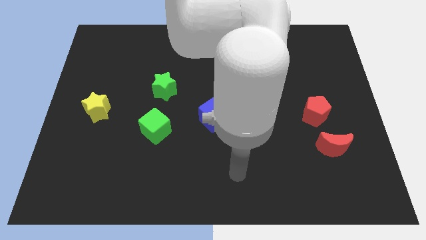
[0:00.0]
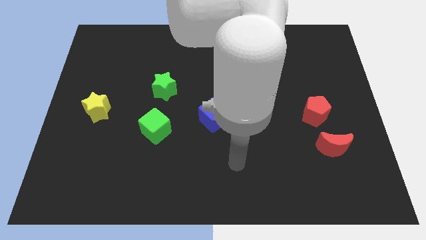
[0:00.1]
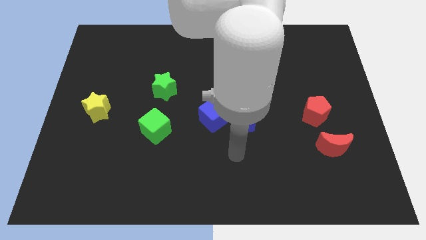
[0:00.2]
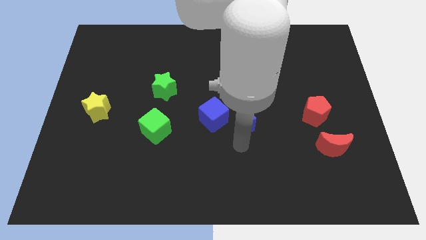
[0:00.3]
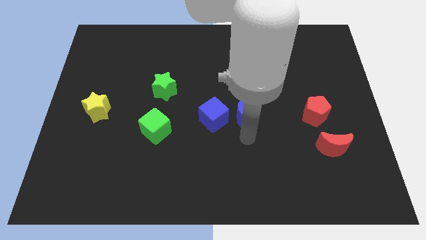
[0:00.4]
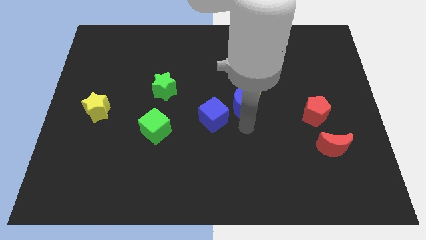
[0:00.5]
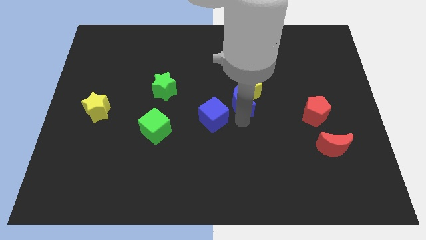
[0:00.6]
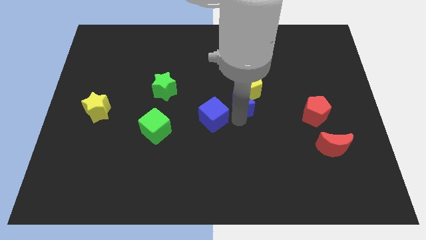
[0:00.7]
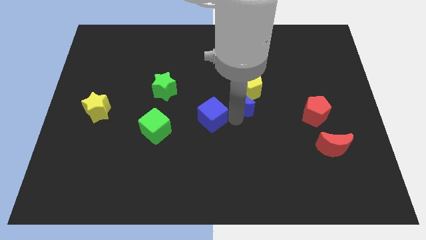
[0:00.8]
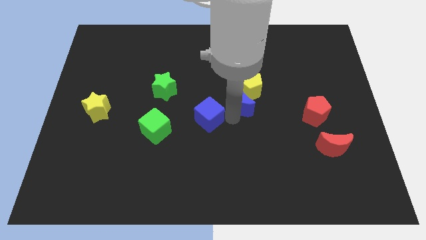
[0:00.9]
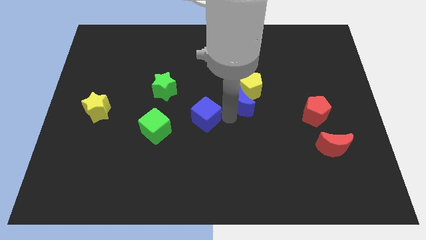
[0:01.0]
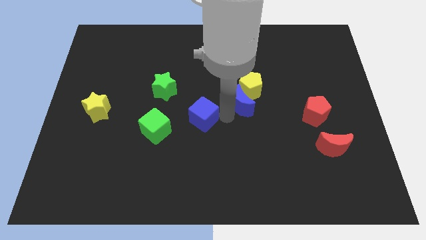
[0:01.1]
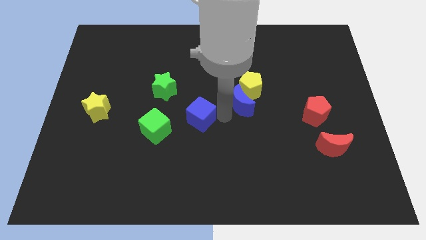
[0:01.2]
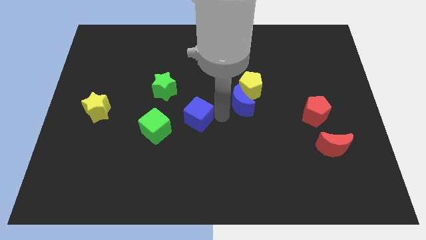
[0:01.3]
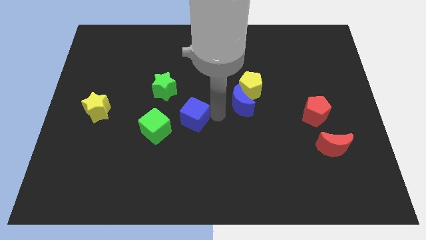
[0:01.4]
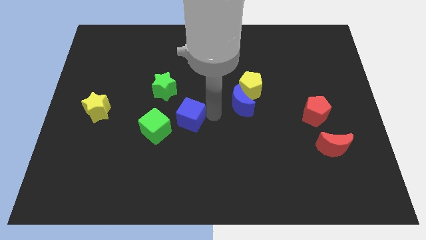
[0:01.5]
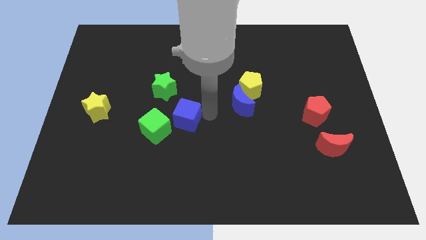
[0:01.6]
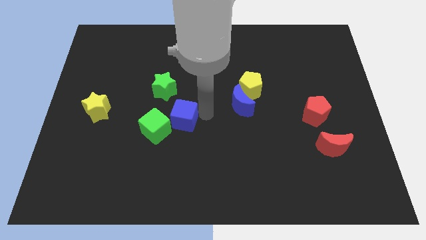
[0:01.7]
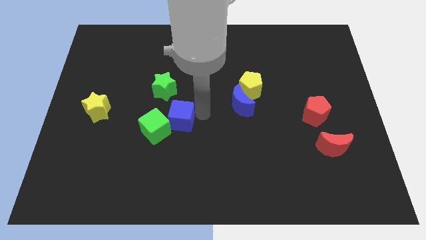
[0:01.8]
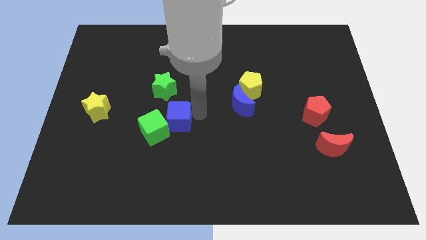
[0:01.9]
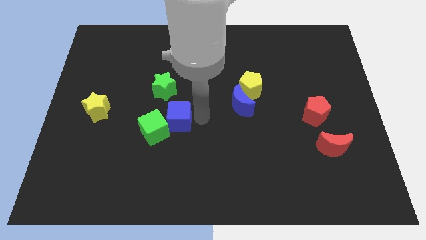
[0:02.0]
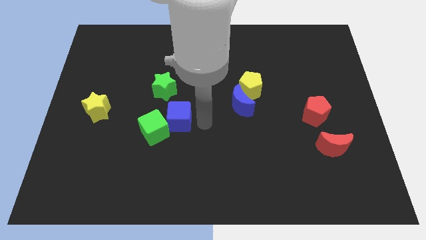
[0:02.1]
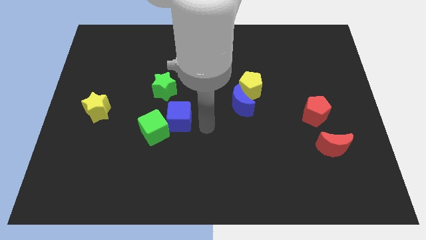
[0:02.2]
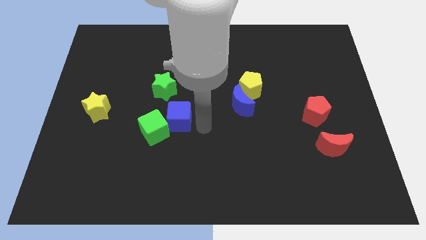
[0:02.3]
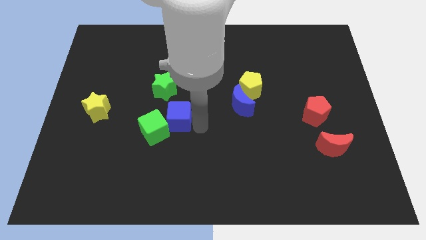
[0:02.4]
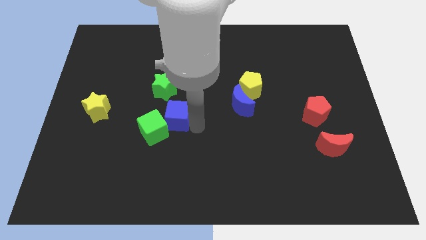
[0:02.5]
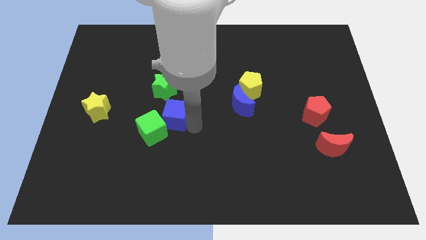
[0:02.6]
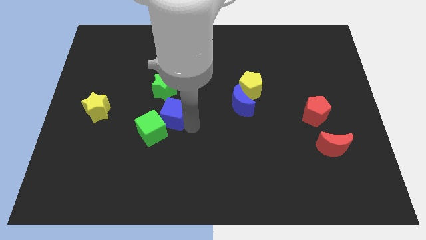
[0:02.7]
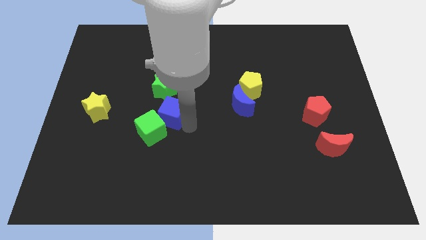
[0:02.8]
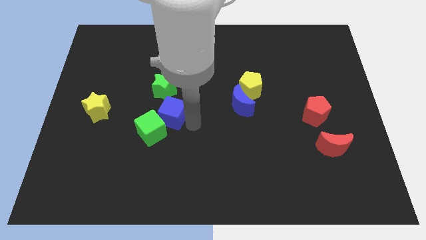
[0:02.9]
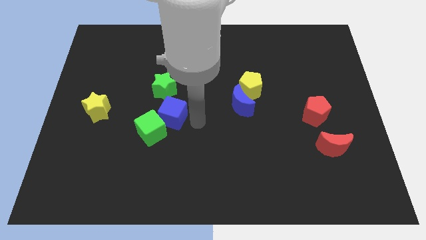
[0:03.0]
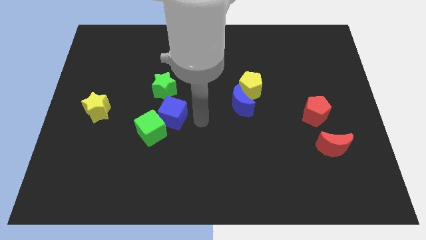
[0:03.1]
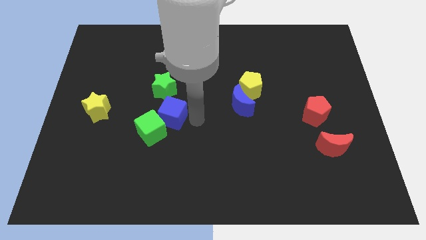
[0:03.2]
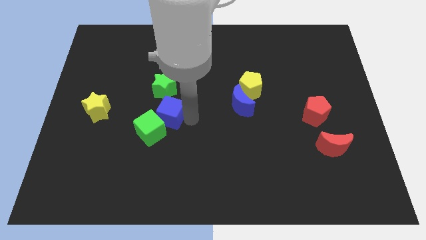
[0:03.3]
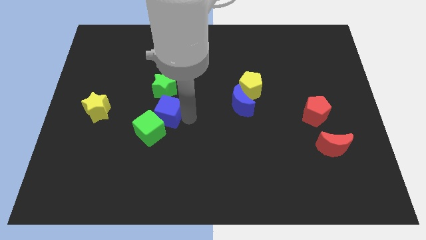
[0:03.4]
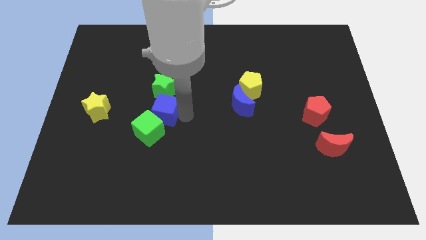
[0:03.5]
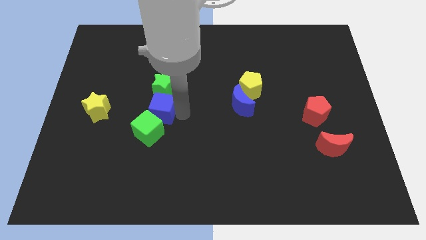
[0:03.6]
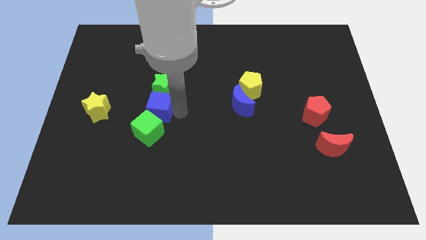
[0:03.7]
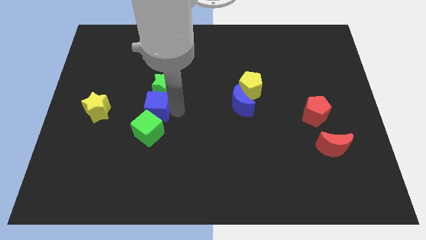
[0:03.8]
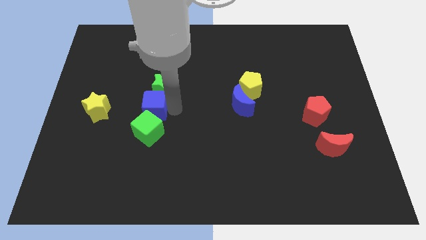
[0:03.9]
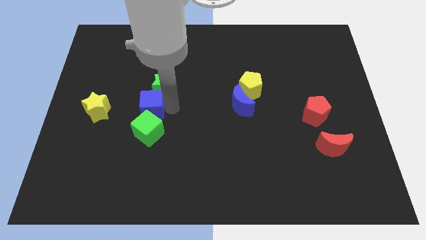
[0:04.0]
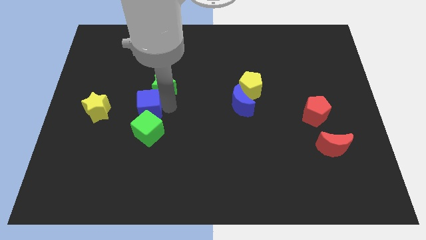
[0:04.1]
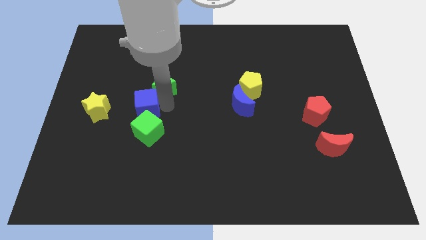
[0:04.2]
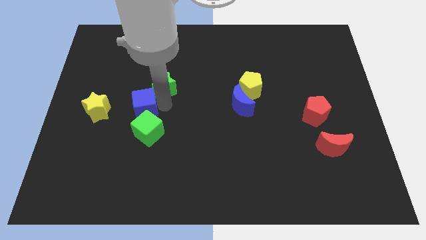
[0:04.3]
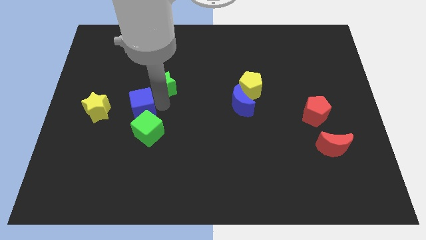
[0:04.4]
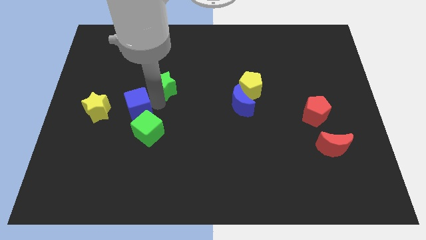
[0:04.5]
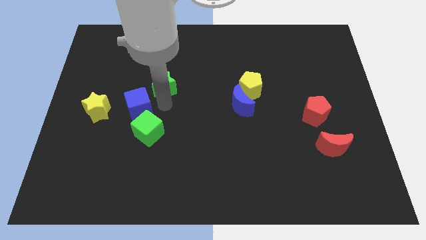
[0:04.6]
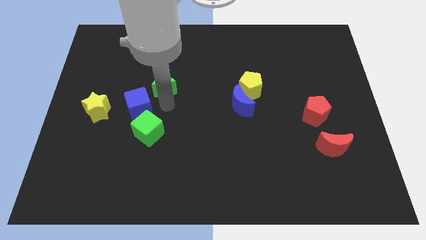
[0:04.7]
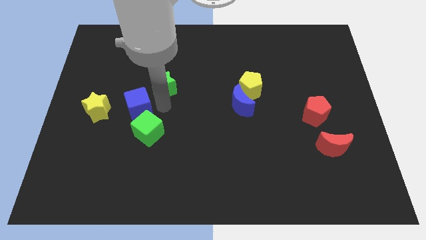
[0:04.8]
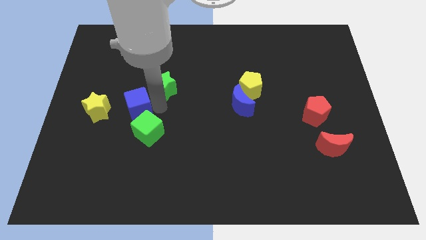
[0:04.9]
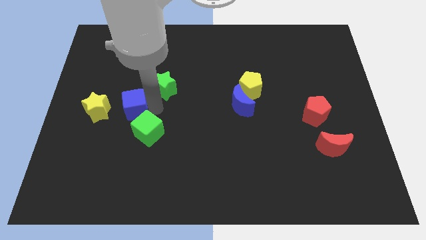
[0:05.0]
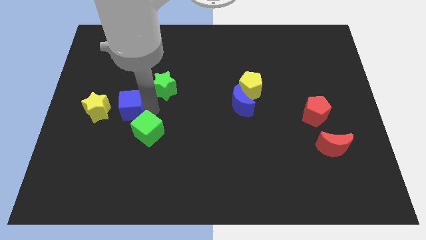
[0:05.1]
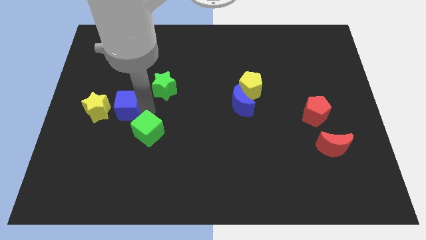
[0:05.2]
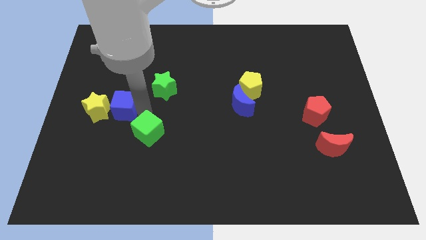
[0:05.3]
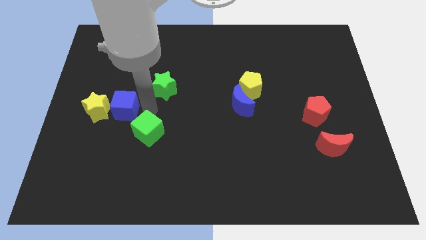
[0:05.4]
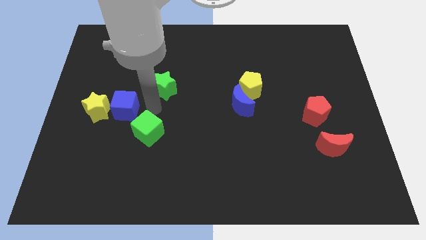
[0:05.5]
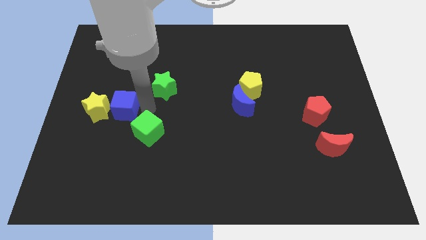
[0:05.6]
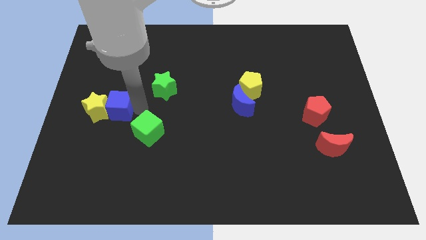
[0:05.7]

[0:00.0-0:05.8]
push the blue cube next to the yellow star

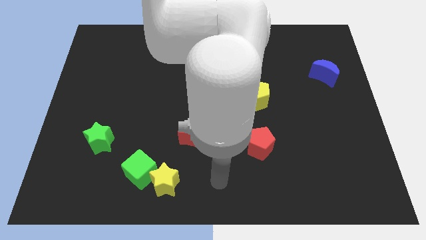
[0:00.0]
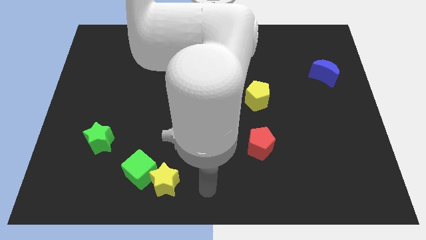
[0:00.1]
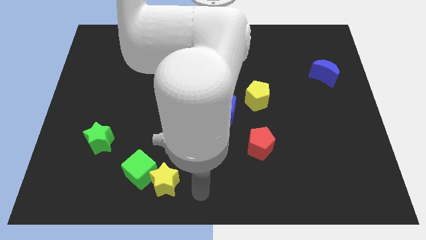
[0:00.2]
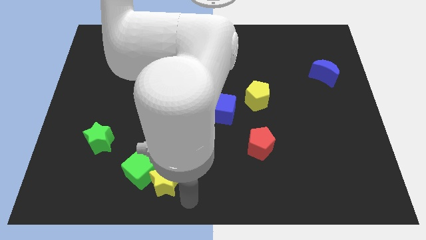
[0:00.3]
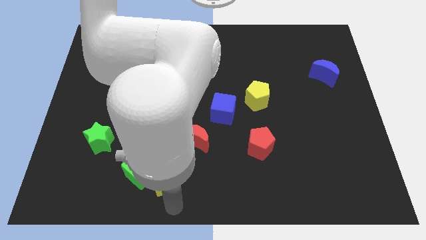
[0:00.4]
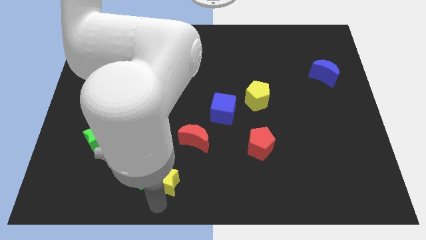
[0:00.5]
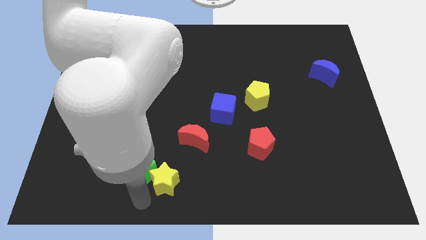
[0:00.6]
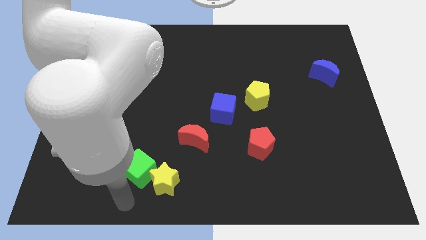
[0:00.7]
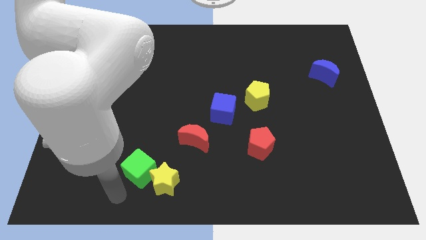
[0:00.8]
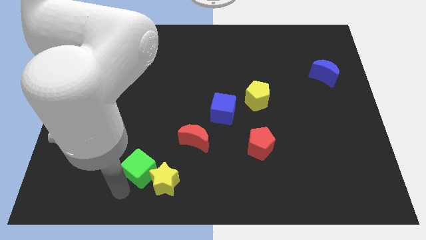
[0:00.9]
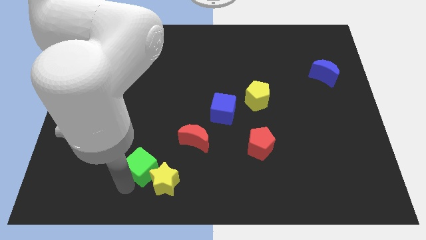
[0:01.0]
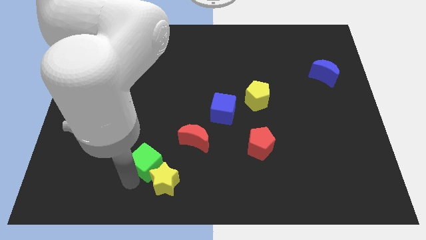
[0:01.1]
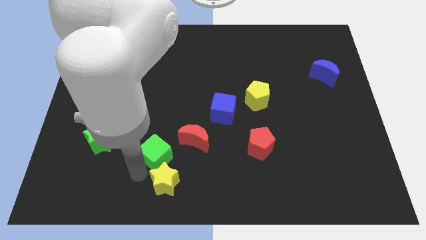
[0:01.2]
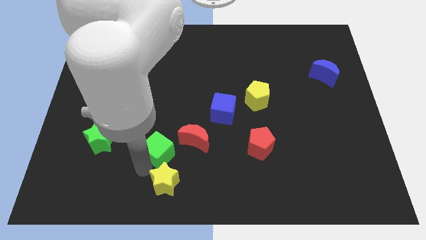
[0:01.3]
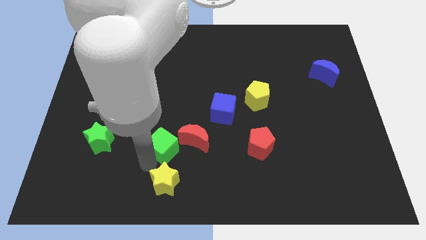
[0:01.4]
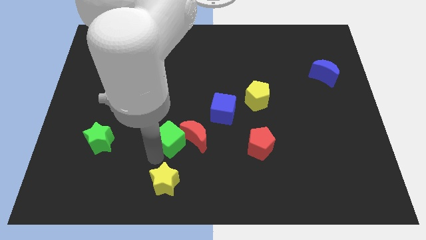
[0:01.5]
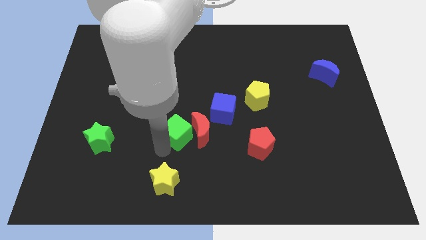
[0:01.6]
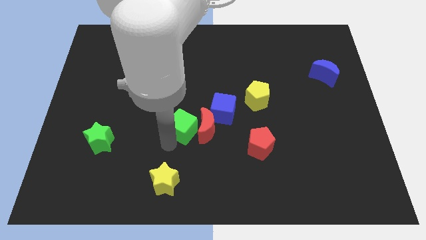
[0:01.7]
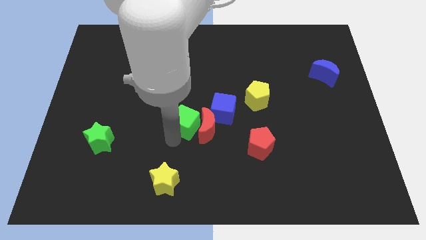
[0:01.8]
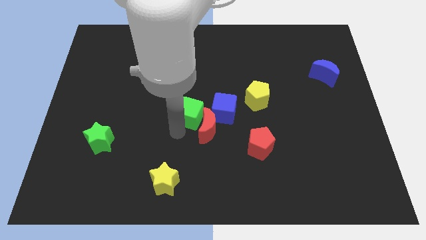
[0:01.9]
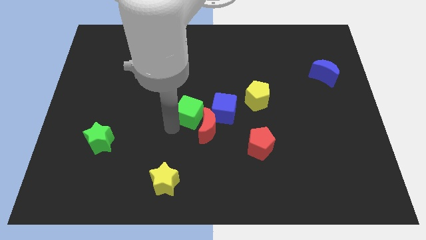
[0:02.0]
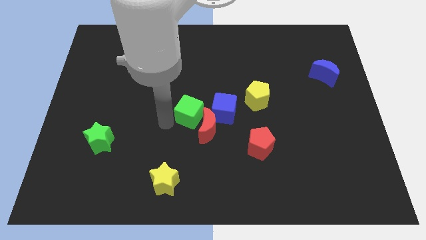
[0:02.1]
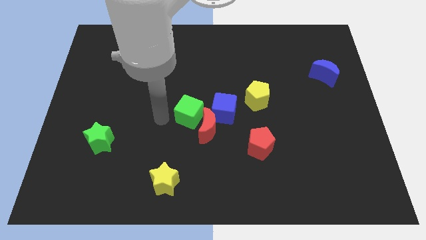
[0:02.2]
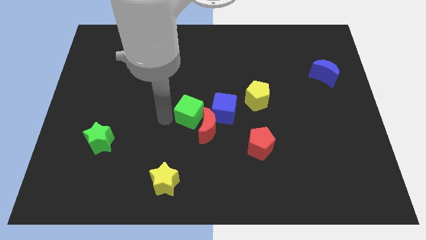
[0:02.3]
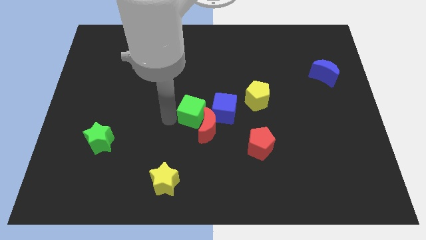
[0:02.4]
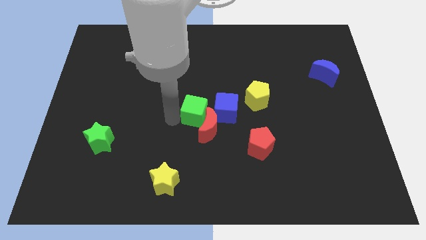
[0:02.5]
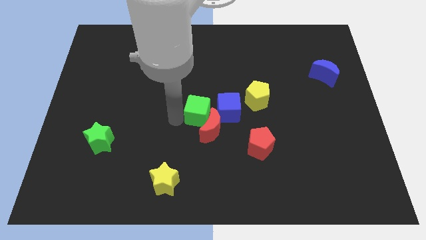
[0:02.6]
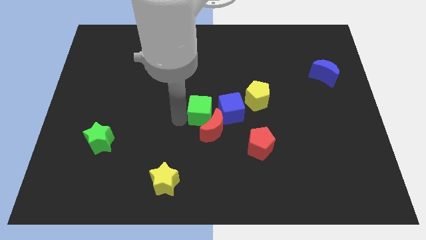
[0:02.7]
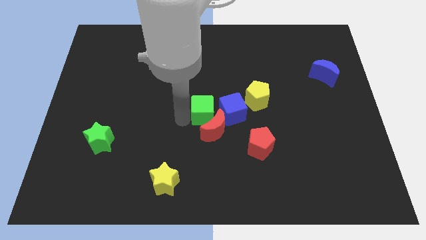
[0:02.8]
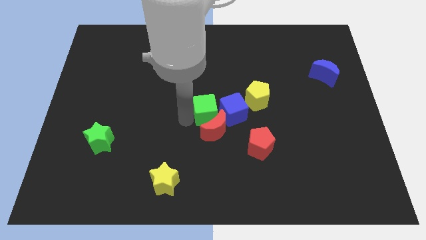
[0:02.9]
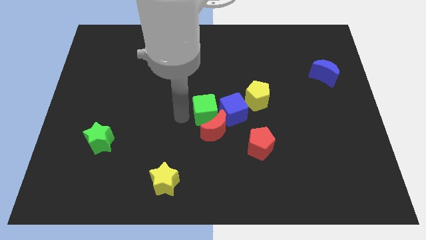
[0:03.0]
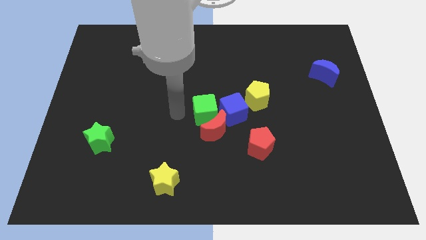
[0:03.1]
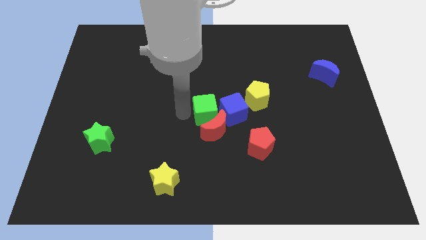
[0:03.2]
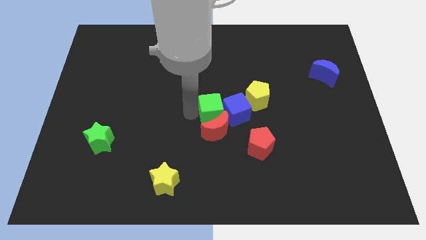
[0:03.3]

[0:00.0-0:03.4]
push the green cube to the blue cube
